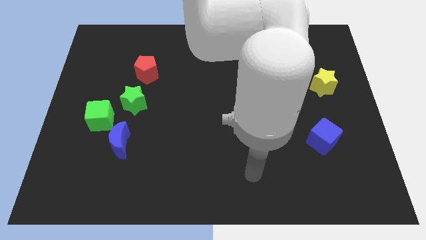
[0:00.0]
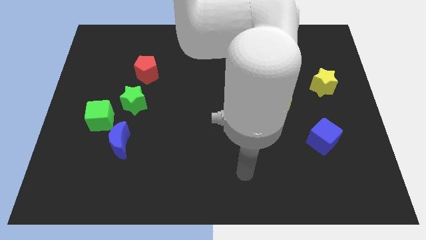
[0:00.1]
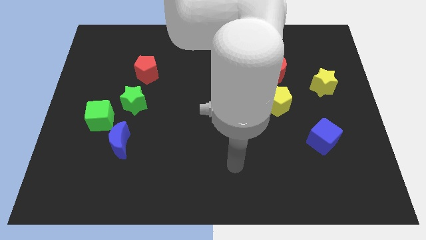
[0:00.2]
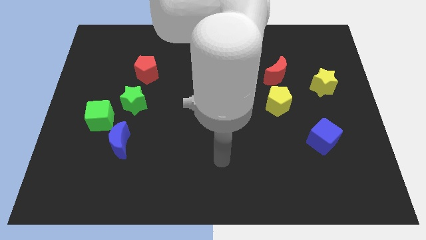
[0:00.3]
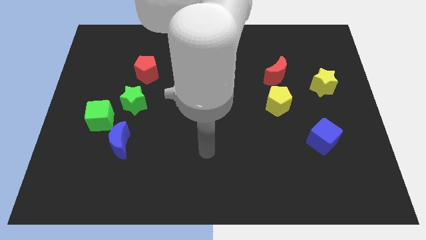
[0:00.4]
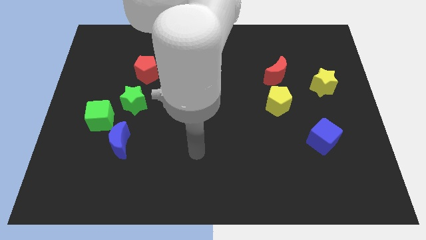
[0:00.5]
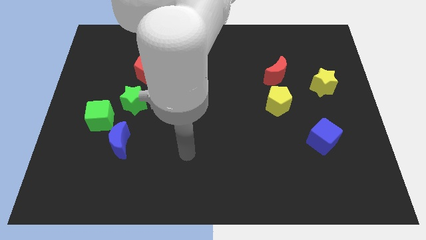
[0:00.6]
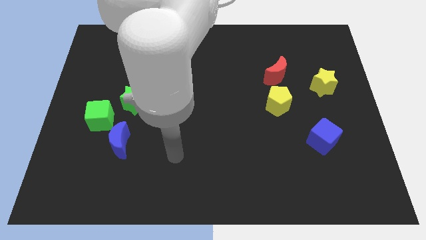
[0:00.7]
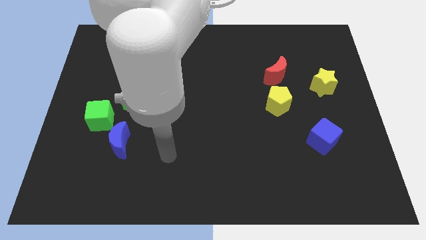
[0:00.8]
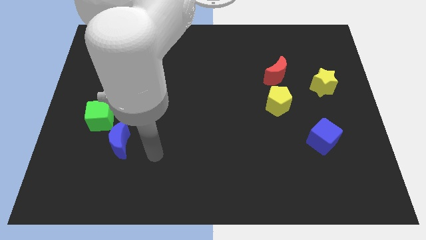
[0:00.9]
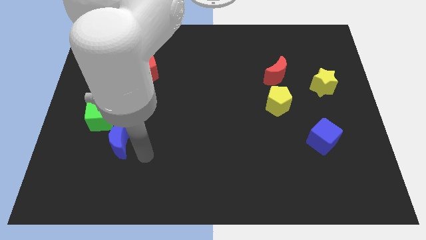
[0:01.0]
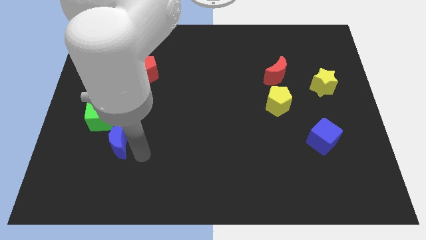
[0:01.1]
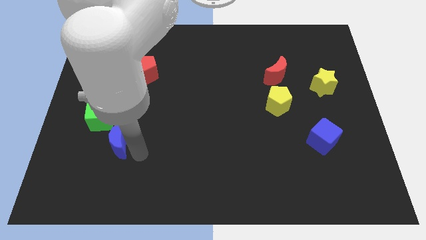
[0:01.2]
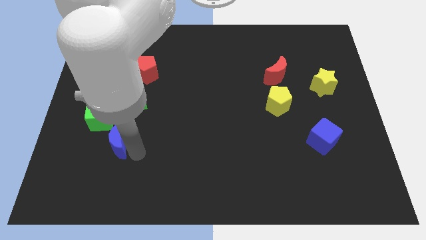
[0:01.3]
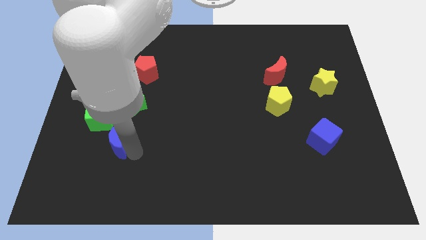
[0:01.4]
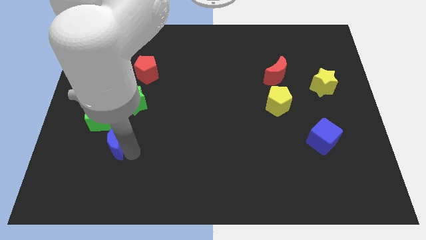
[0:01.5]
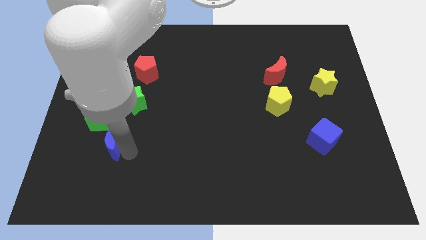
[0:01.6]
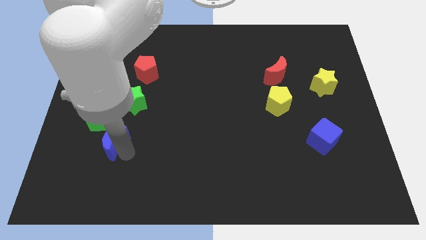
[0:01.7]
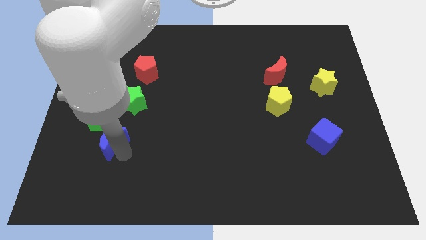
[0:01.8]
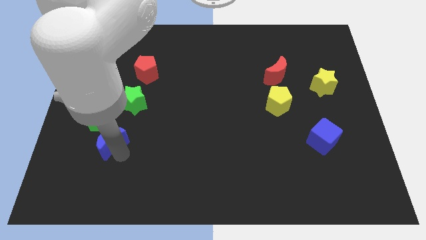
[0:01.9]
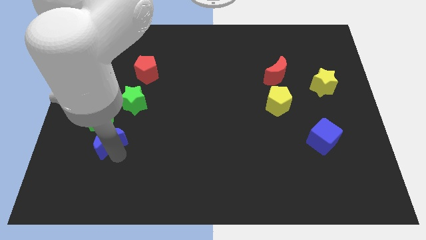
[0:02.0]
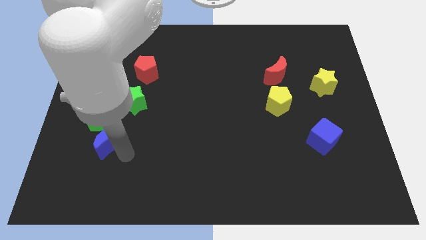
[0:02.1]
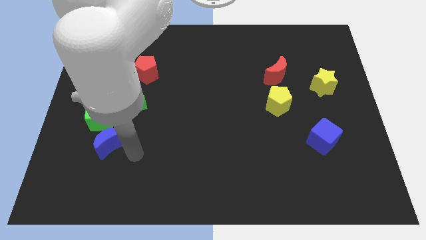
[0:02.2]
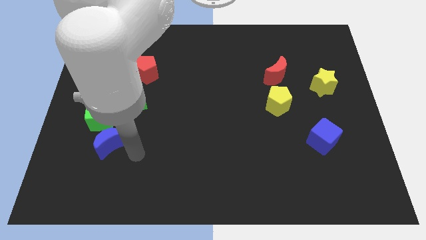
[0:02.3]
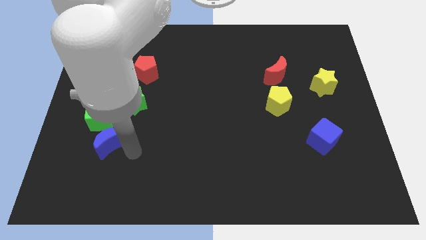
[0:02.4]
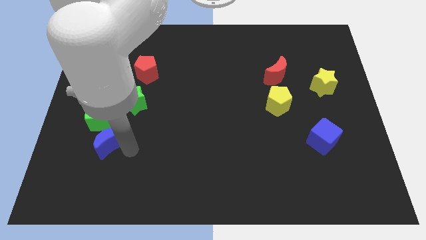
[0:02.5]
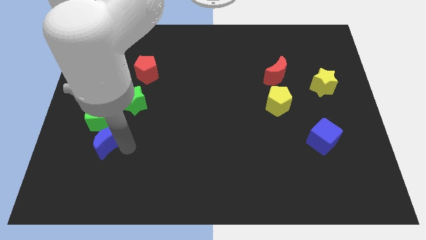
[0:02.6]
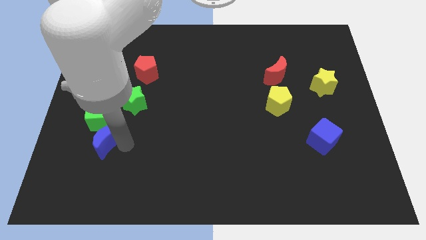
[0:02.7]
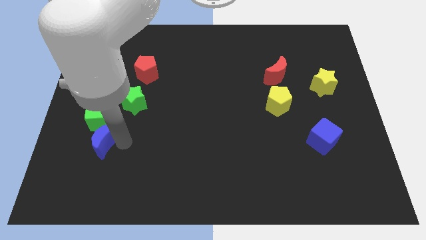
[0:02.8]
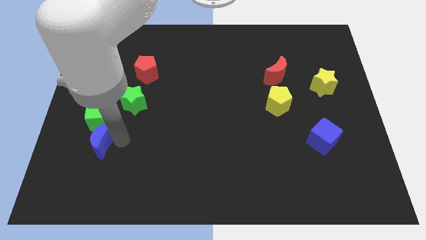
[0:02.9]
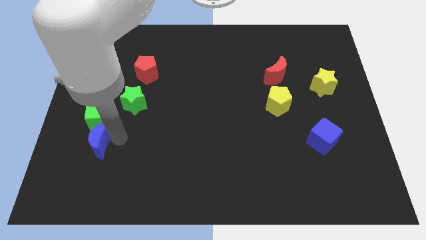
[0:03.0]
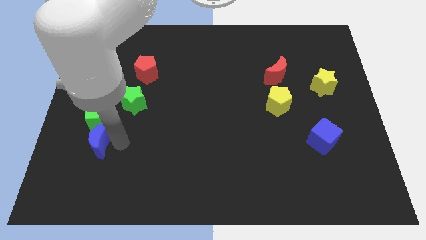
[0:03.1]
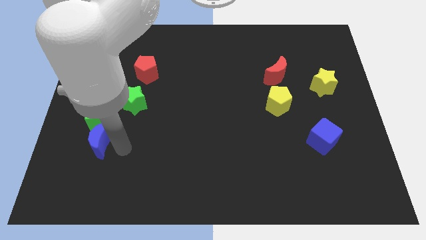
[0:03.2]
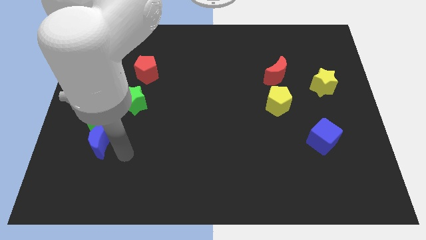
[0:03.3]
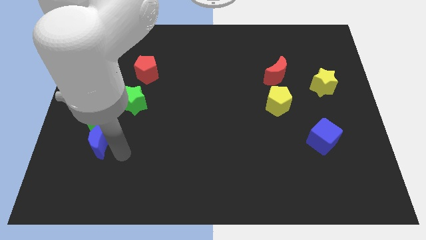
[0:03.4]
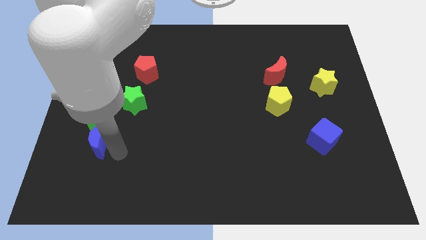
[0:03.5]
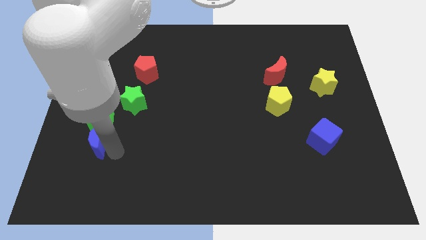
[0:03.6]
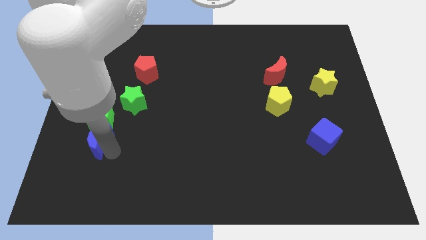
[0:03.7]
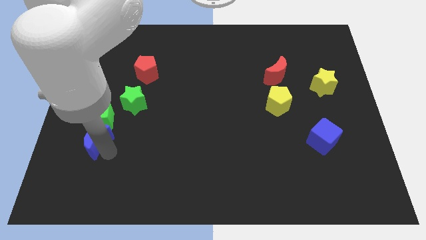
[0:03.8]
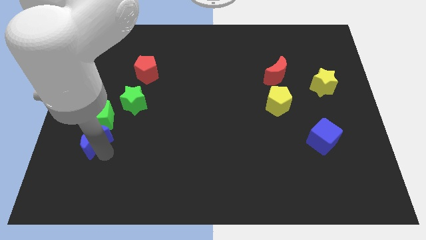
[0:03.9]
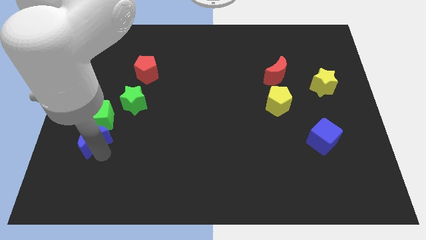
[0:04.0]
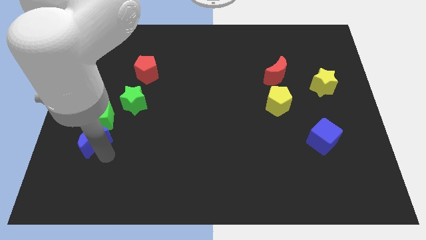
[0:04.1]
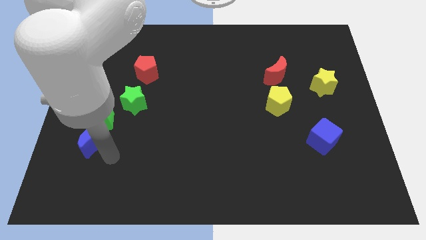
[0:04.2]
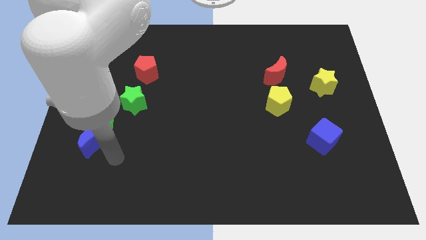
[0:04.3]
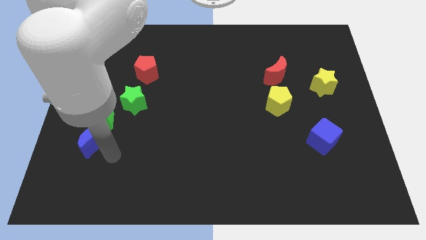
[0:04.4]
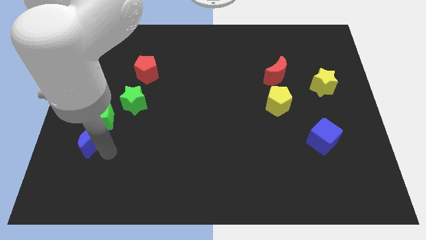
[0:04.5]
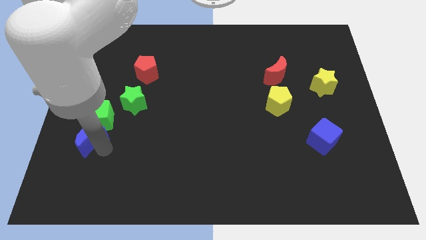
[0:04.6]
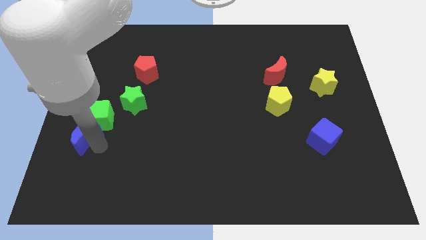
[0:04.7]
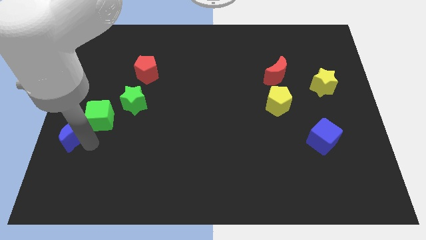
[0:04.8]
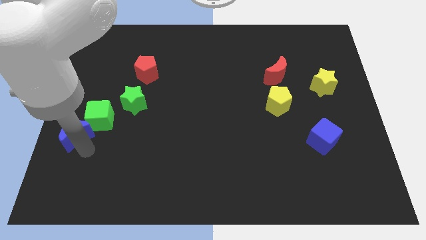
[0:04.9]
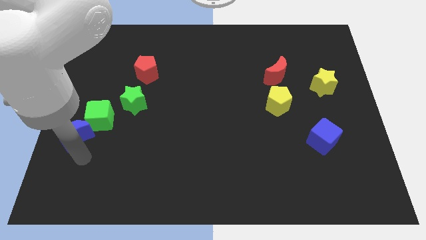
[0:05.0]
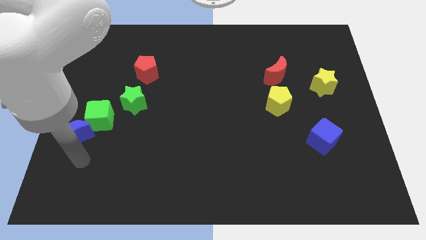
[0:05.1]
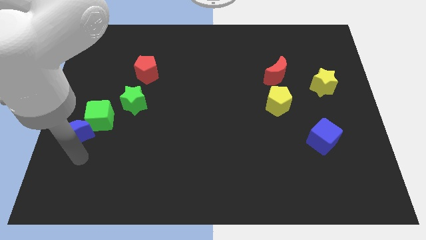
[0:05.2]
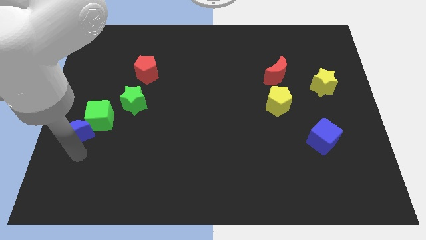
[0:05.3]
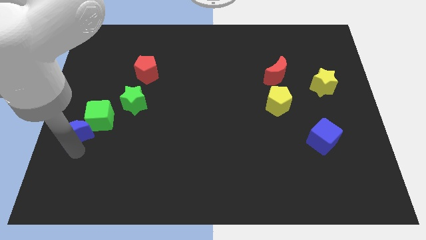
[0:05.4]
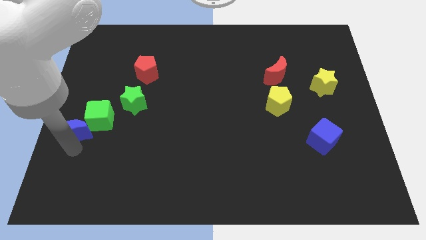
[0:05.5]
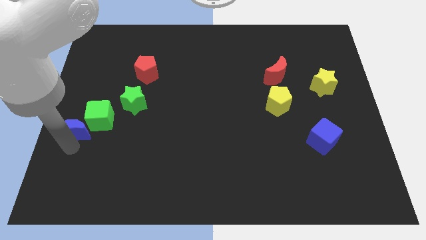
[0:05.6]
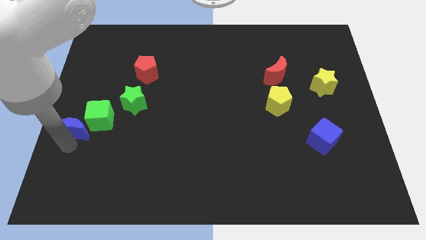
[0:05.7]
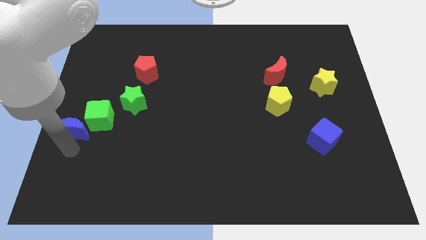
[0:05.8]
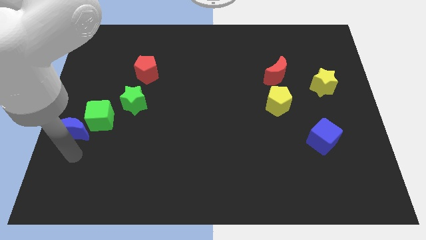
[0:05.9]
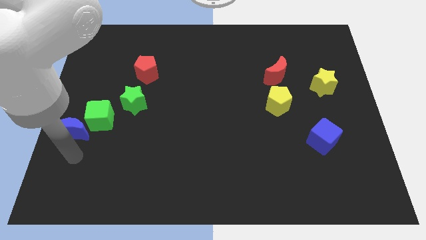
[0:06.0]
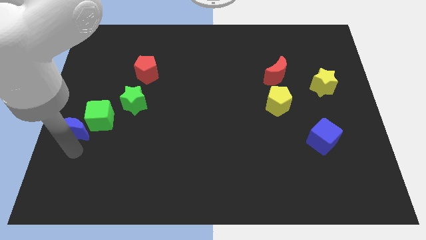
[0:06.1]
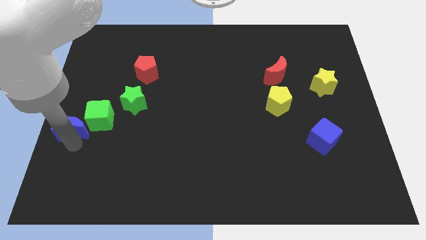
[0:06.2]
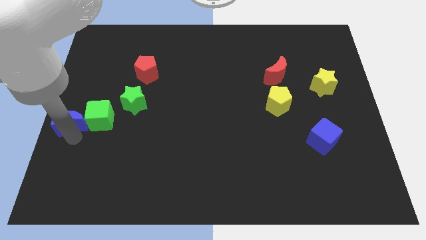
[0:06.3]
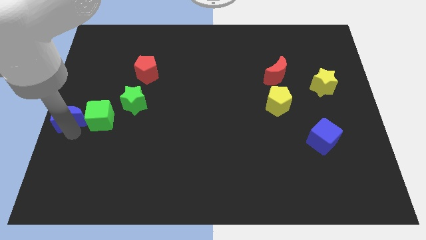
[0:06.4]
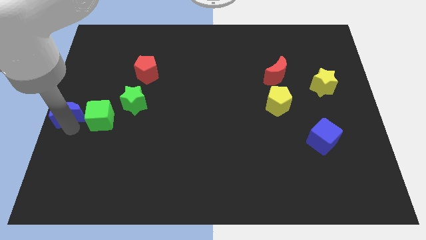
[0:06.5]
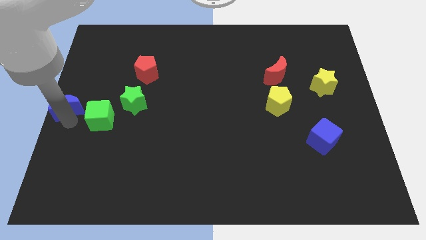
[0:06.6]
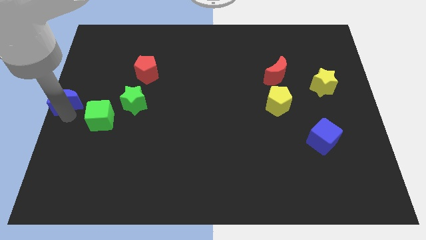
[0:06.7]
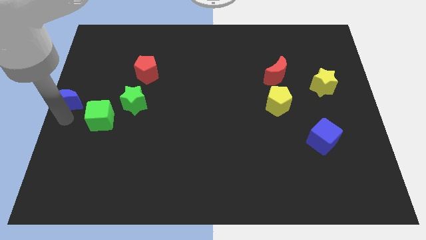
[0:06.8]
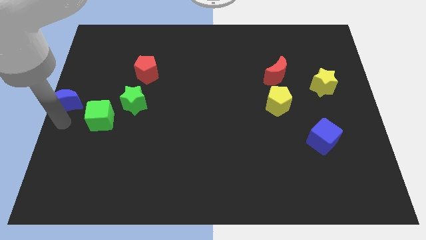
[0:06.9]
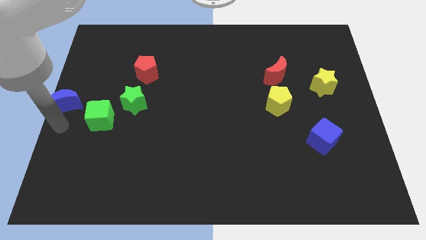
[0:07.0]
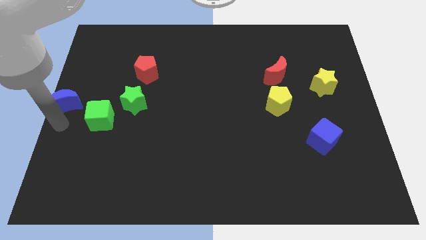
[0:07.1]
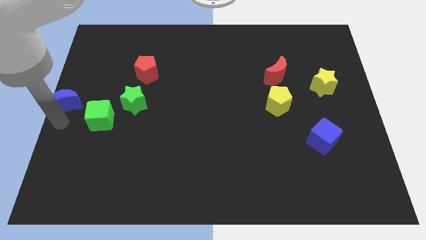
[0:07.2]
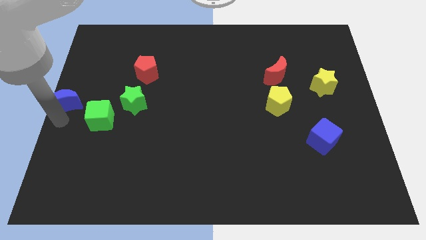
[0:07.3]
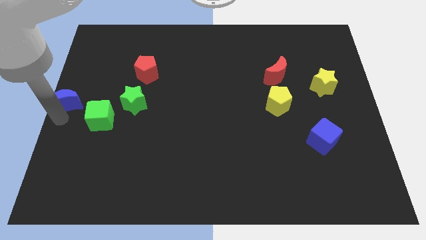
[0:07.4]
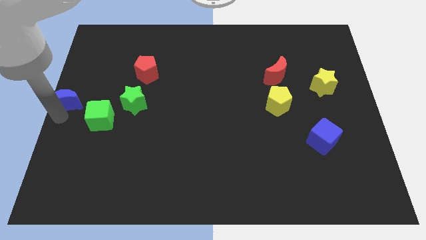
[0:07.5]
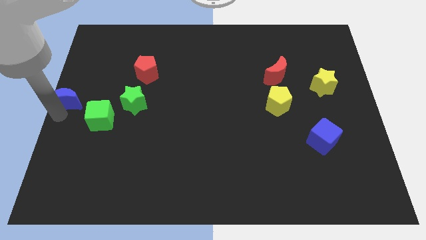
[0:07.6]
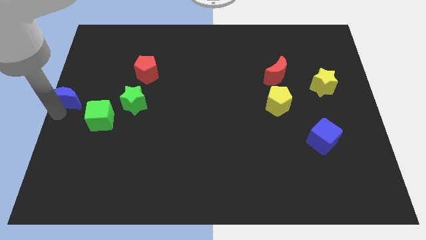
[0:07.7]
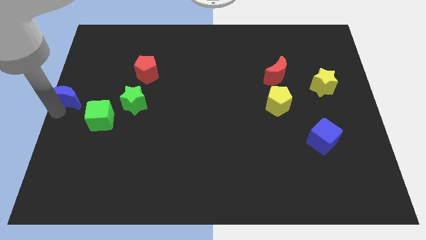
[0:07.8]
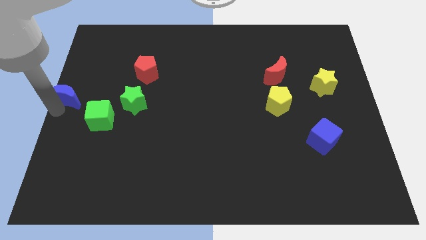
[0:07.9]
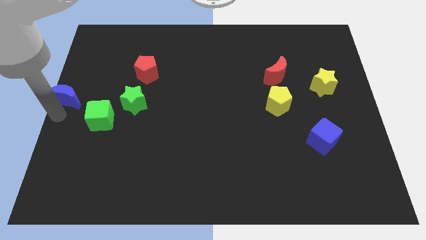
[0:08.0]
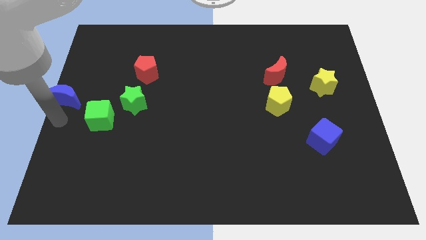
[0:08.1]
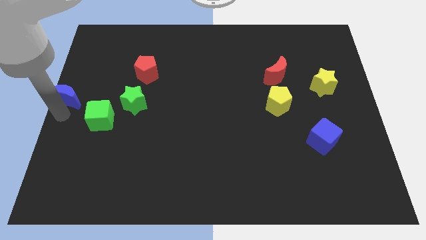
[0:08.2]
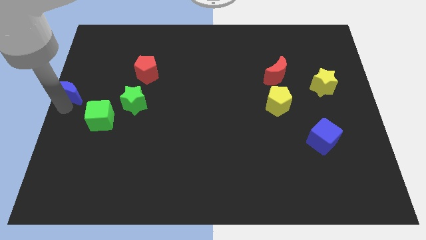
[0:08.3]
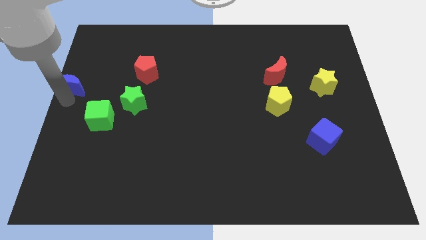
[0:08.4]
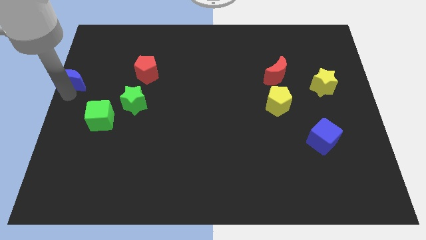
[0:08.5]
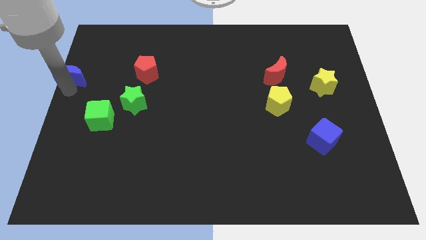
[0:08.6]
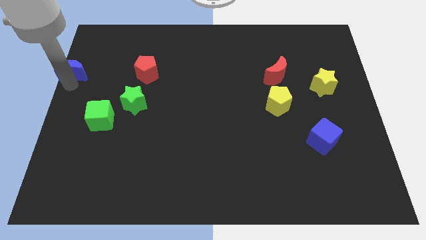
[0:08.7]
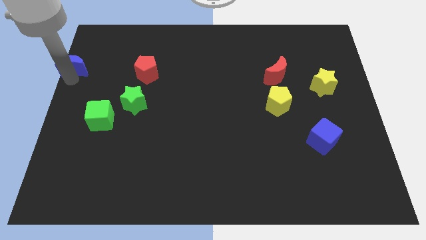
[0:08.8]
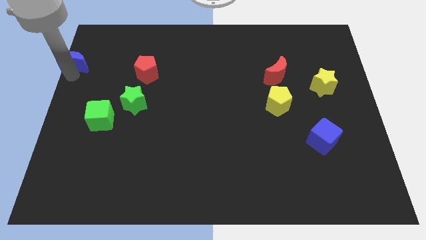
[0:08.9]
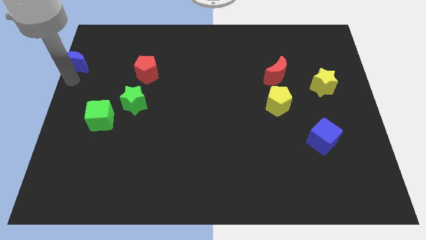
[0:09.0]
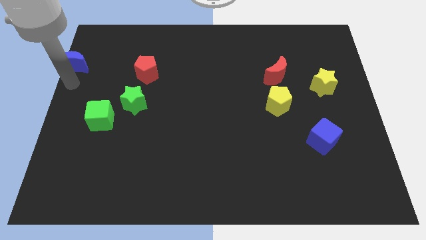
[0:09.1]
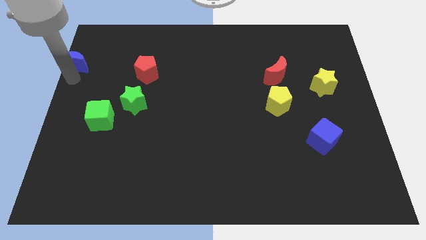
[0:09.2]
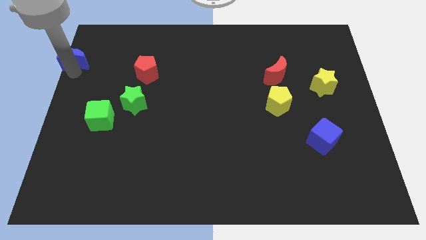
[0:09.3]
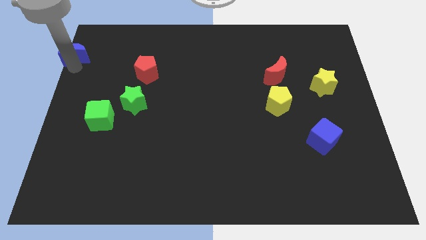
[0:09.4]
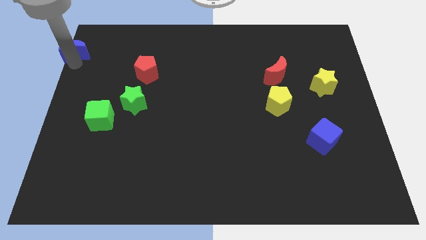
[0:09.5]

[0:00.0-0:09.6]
put the blue moon to the upper left corner
